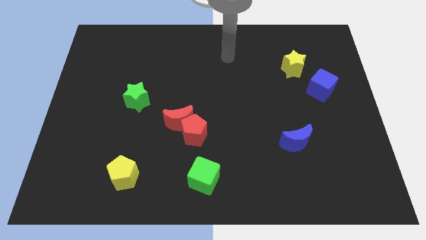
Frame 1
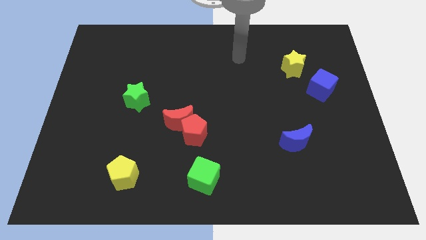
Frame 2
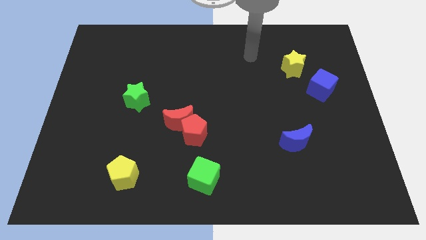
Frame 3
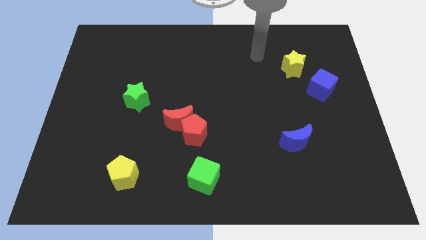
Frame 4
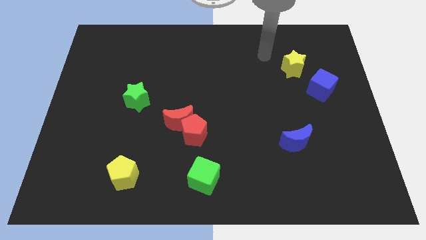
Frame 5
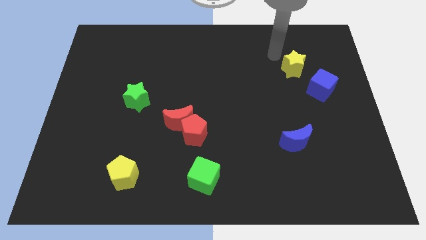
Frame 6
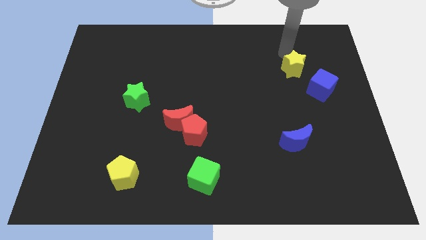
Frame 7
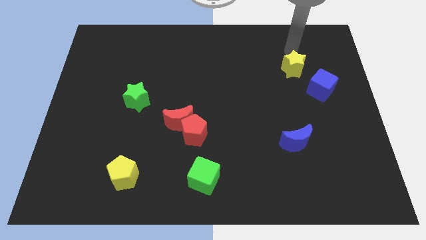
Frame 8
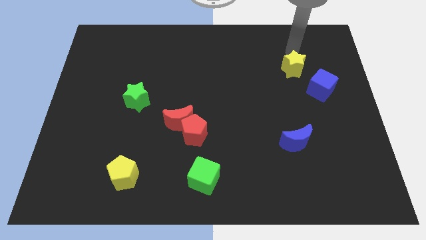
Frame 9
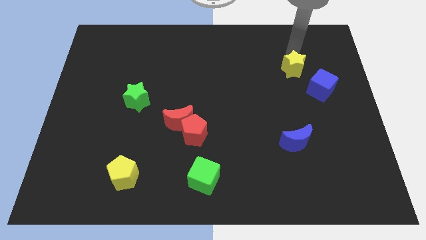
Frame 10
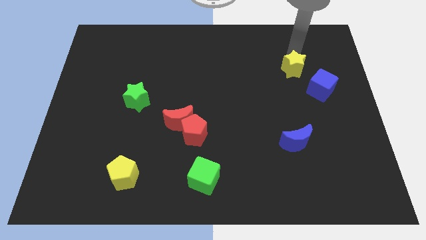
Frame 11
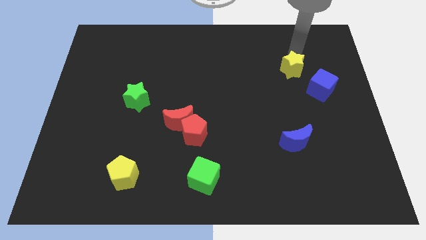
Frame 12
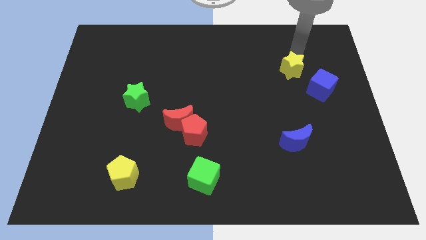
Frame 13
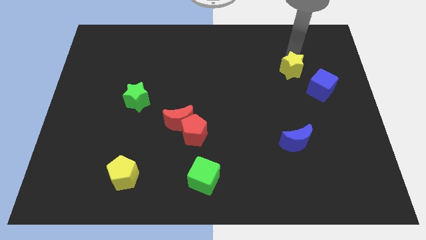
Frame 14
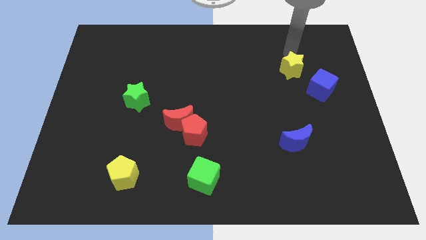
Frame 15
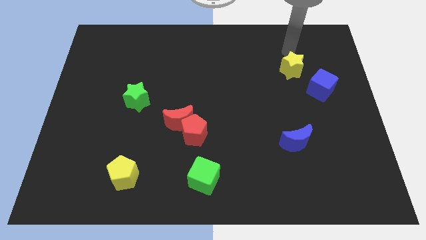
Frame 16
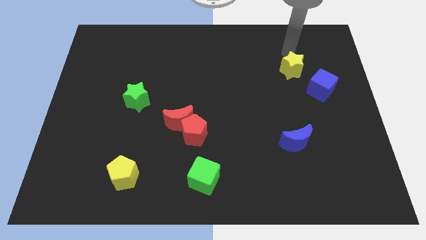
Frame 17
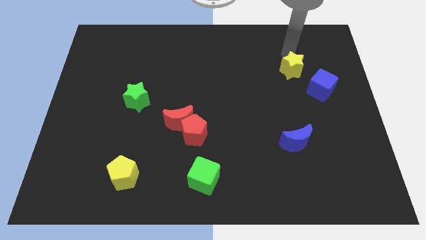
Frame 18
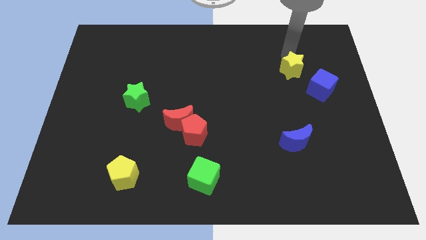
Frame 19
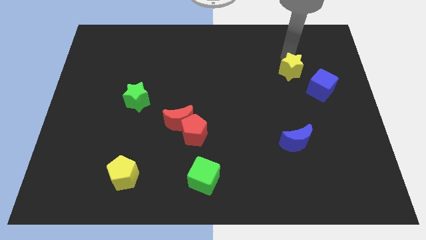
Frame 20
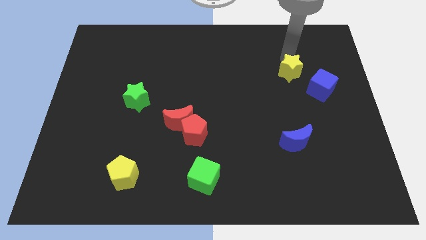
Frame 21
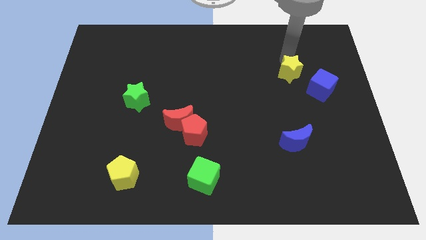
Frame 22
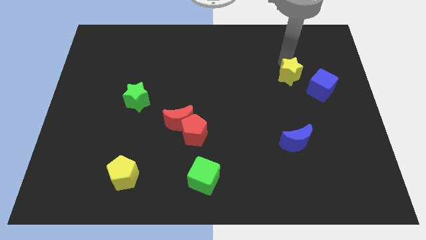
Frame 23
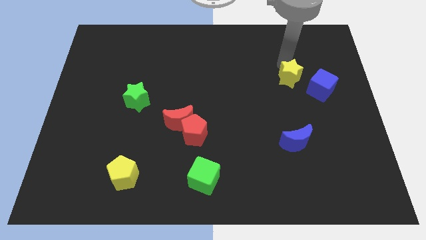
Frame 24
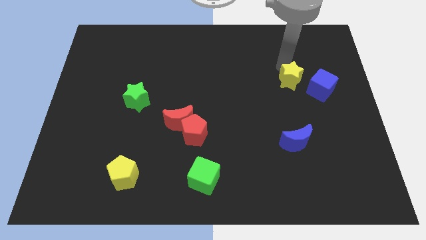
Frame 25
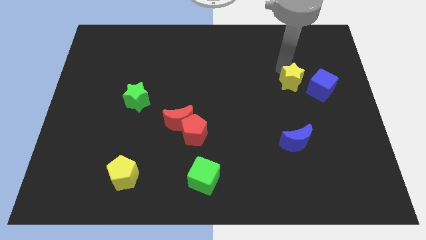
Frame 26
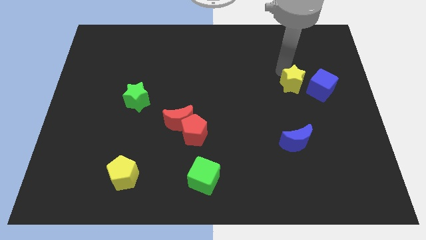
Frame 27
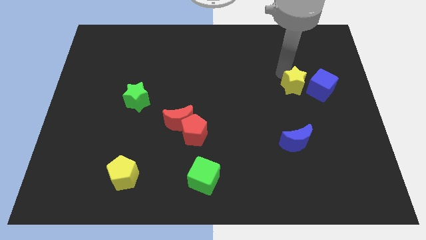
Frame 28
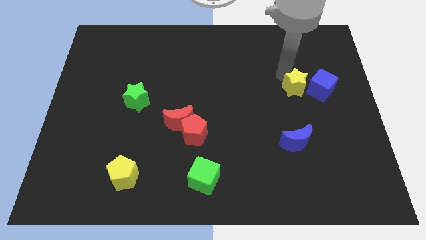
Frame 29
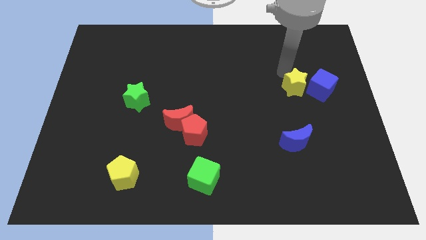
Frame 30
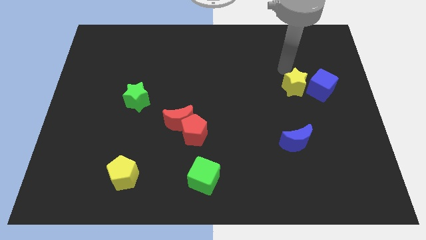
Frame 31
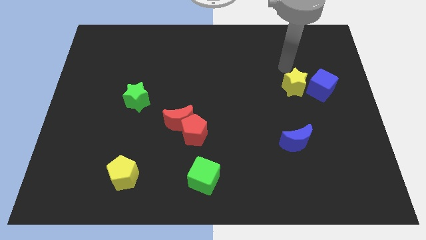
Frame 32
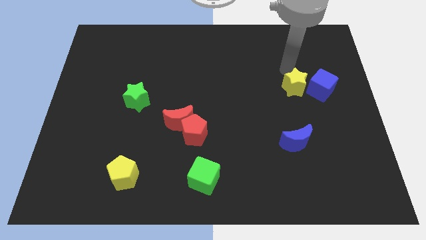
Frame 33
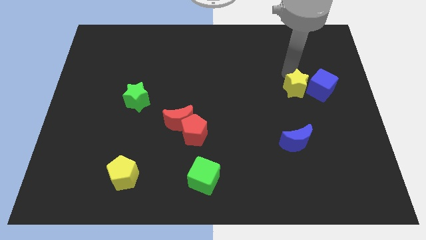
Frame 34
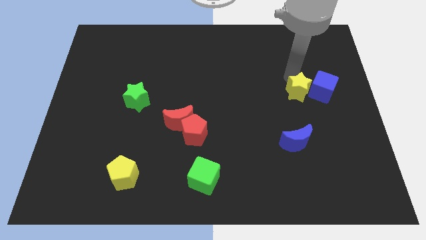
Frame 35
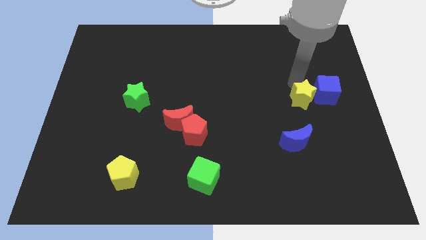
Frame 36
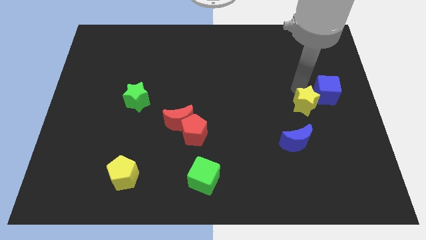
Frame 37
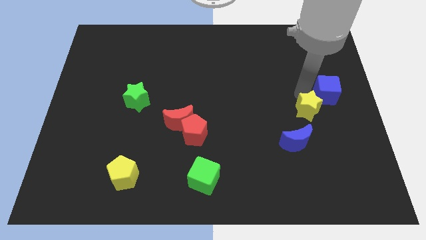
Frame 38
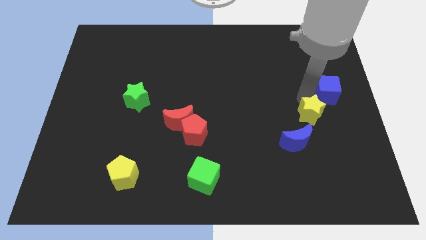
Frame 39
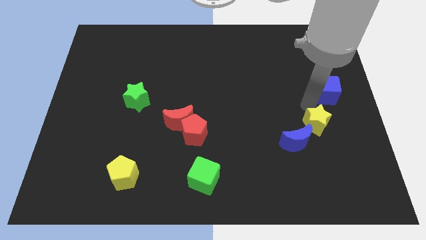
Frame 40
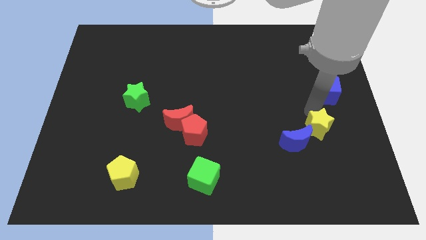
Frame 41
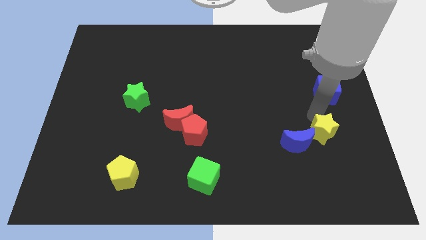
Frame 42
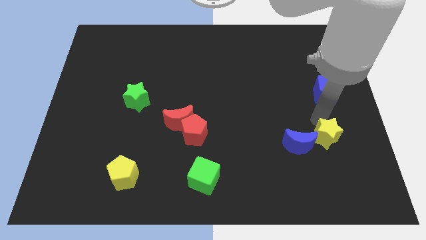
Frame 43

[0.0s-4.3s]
push the yellow star downwards

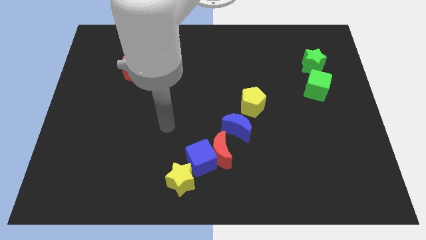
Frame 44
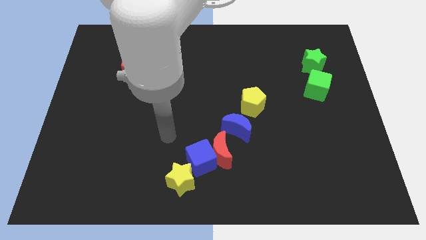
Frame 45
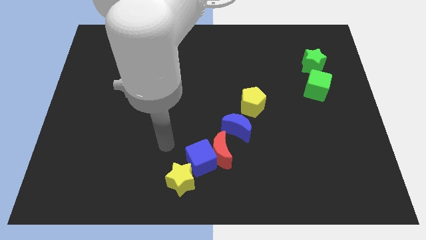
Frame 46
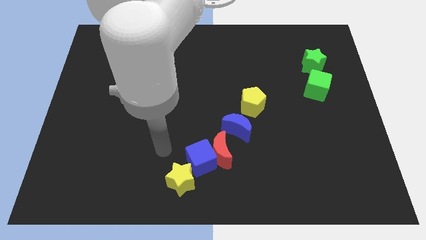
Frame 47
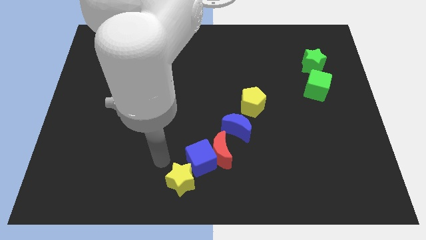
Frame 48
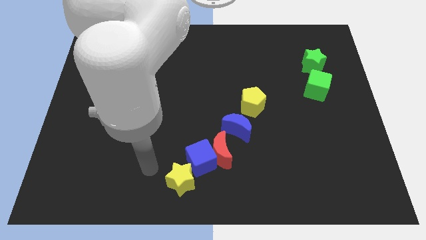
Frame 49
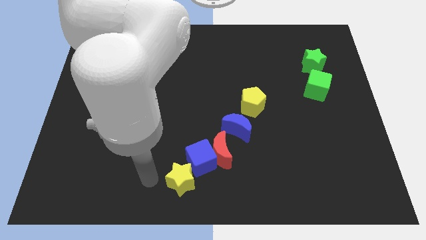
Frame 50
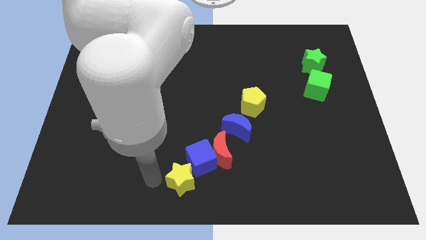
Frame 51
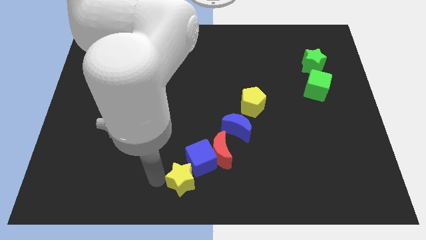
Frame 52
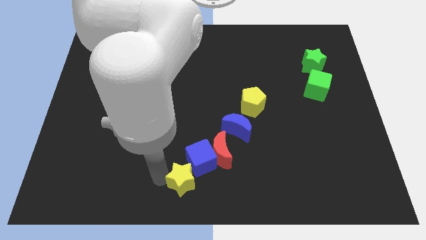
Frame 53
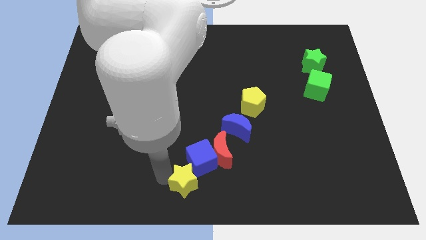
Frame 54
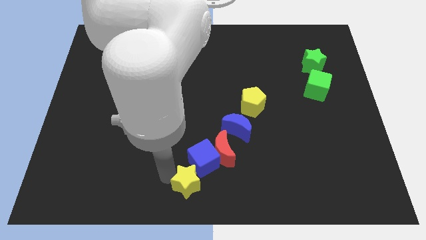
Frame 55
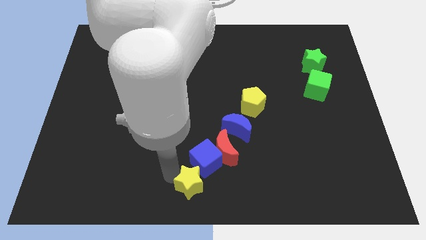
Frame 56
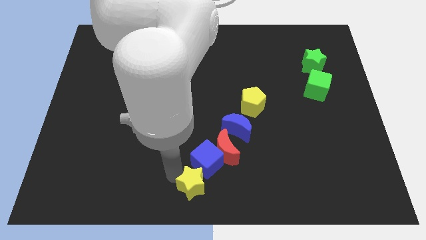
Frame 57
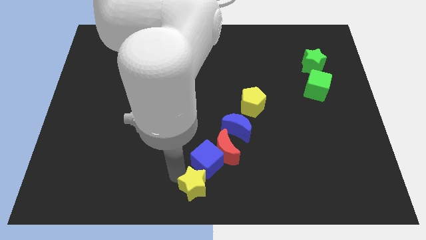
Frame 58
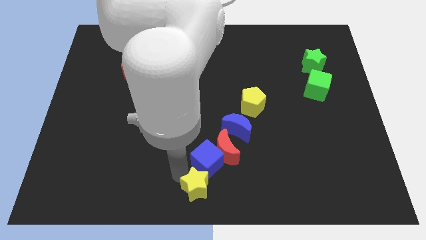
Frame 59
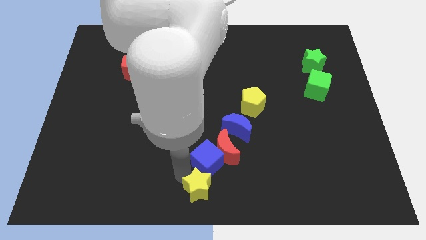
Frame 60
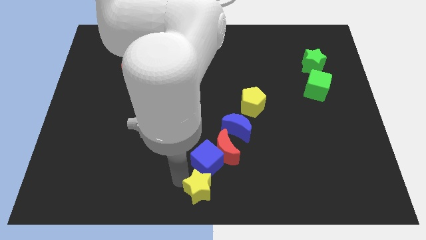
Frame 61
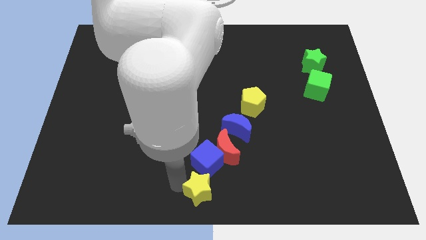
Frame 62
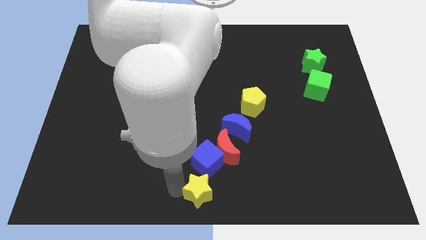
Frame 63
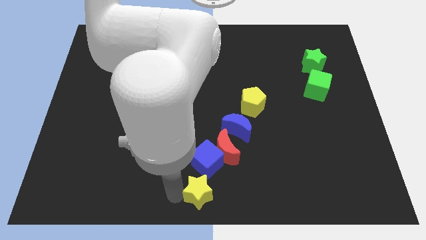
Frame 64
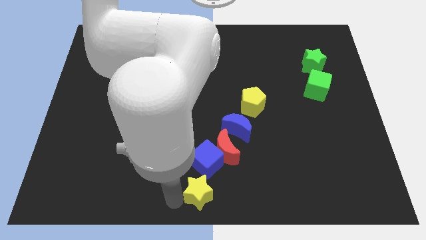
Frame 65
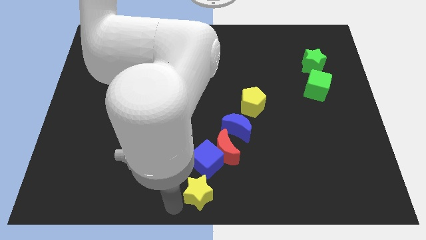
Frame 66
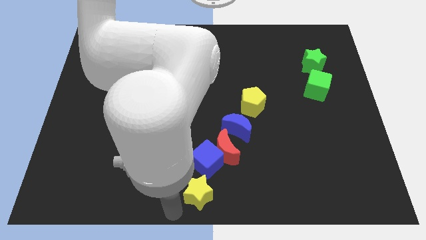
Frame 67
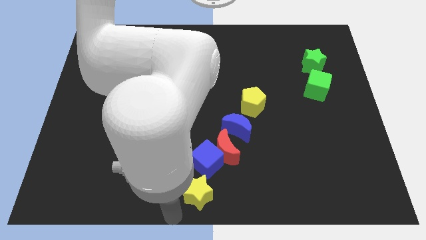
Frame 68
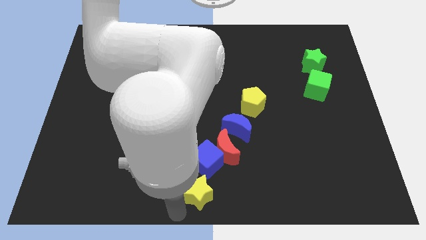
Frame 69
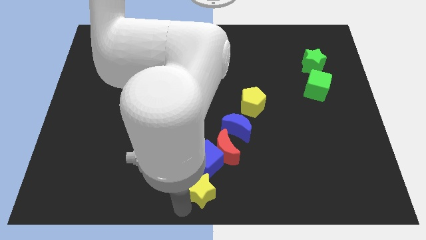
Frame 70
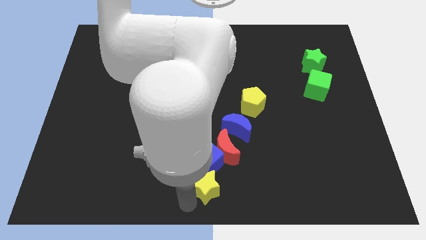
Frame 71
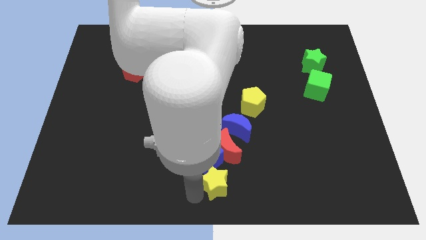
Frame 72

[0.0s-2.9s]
slightly move the yellow star to the right

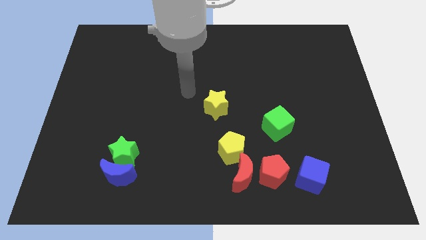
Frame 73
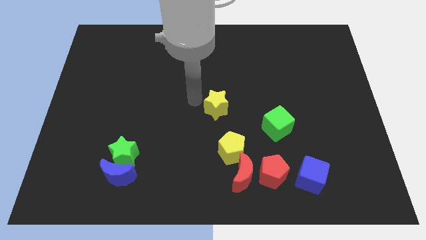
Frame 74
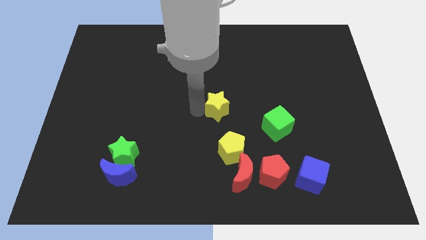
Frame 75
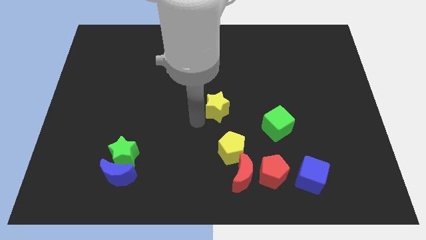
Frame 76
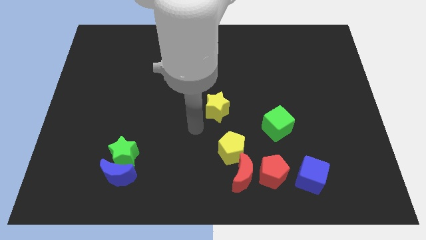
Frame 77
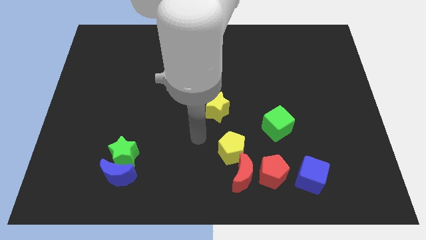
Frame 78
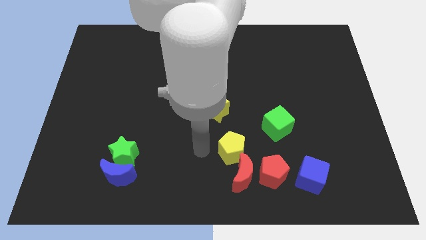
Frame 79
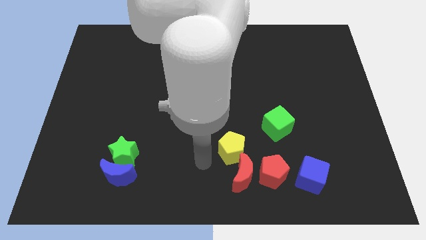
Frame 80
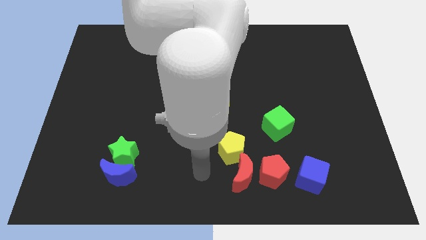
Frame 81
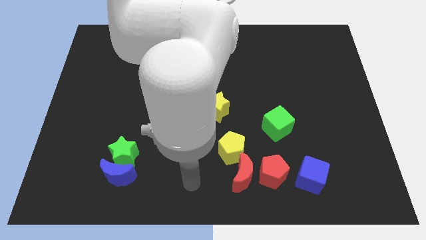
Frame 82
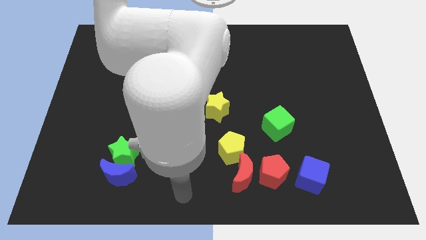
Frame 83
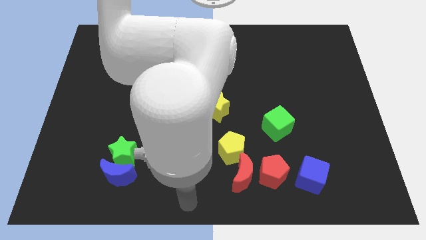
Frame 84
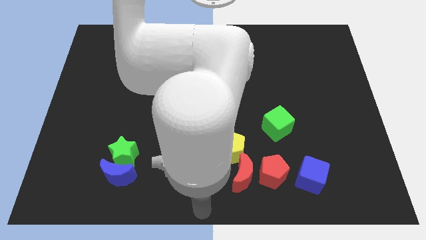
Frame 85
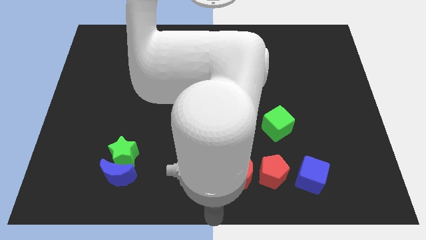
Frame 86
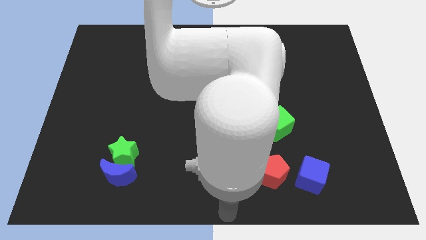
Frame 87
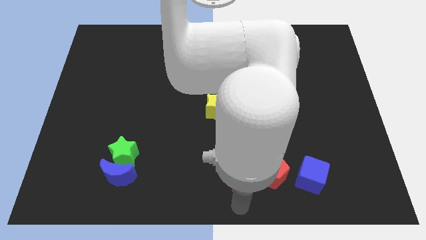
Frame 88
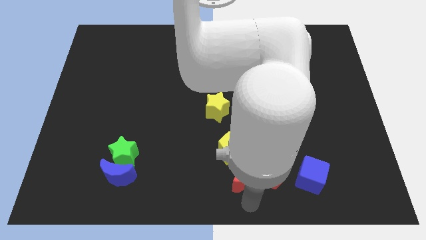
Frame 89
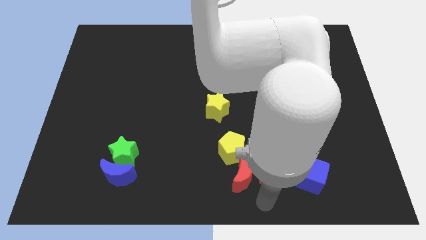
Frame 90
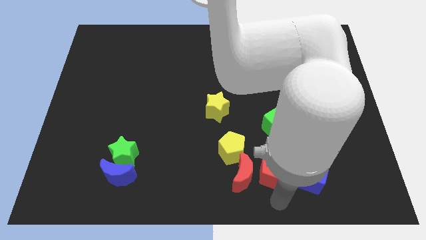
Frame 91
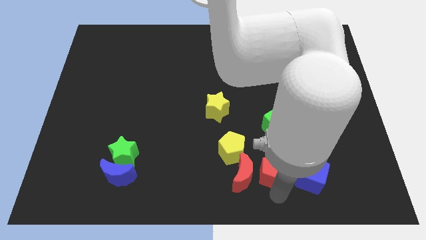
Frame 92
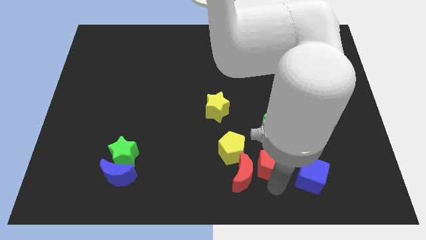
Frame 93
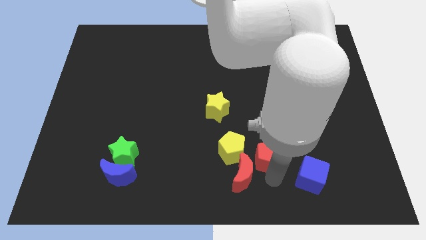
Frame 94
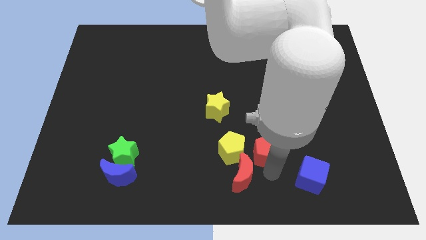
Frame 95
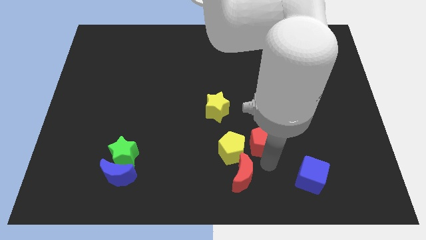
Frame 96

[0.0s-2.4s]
push the red pentagon somewhat up
